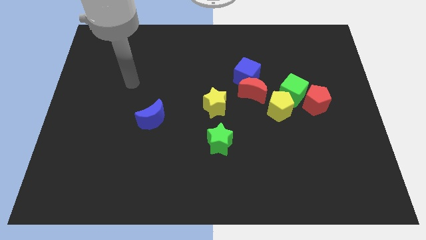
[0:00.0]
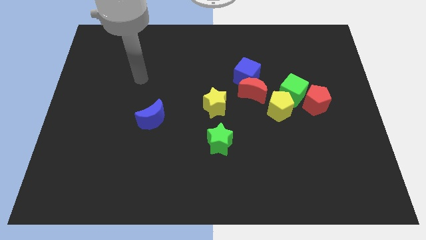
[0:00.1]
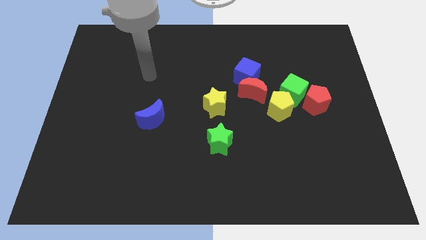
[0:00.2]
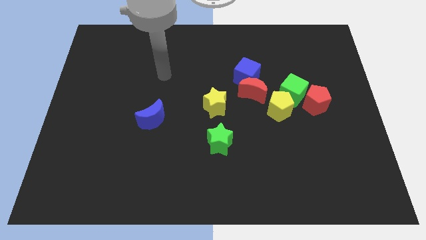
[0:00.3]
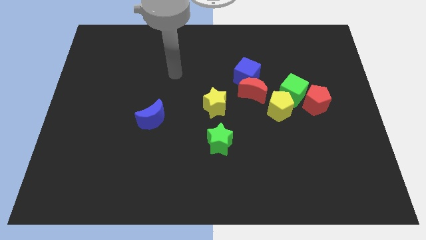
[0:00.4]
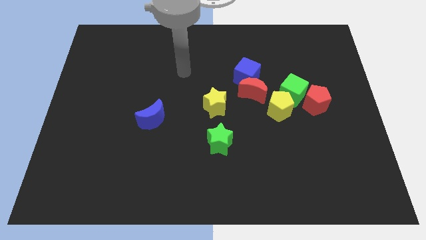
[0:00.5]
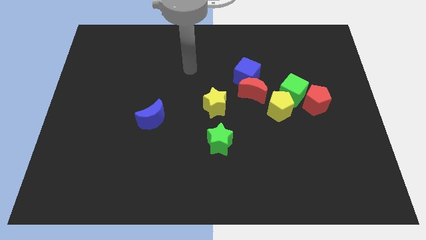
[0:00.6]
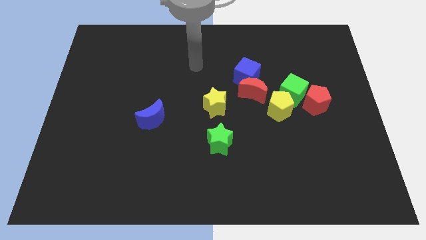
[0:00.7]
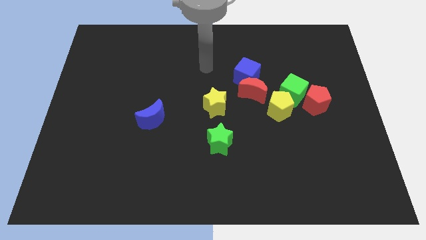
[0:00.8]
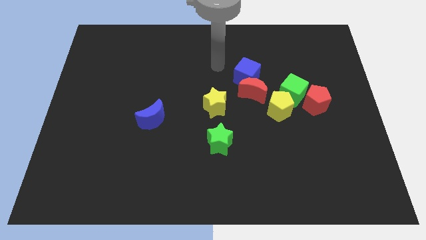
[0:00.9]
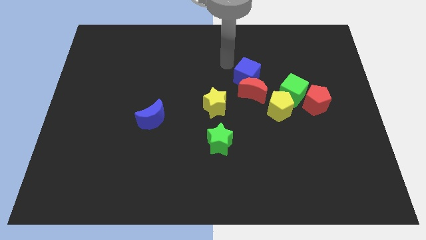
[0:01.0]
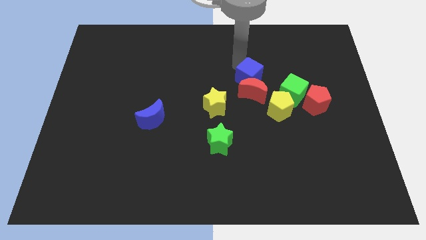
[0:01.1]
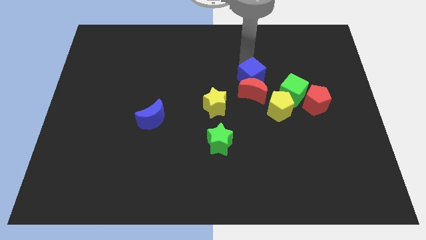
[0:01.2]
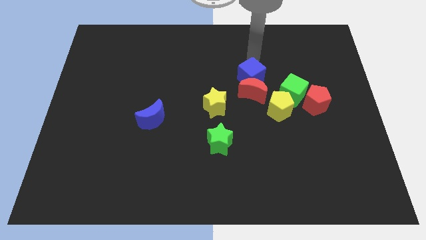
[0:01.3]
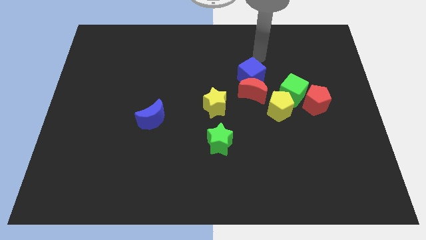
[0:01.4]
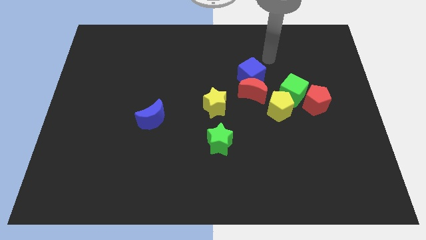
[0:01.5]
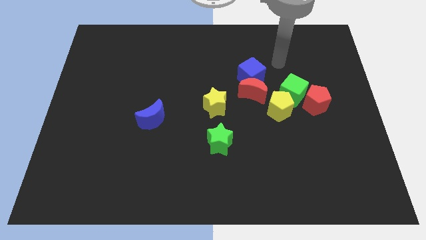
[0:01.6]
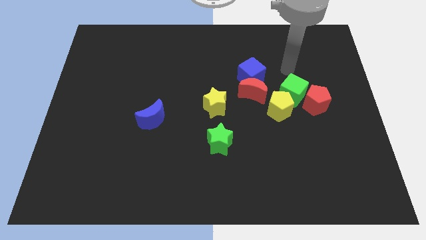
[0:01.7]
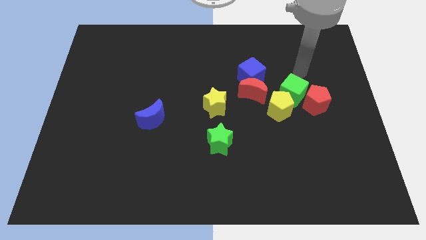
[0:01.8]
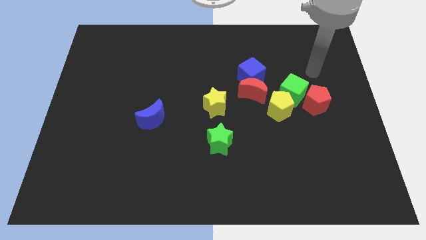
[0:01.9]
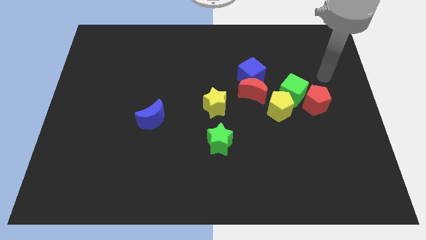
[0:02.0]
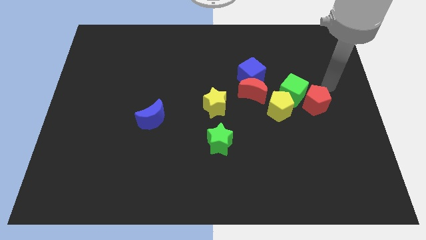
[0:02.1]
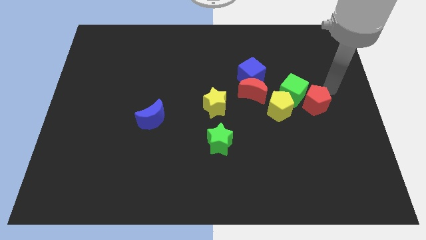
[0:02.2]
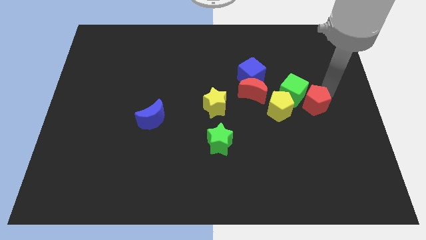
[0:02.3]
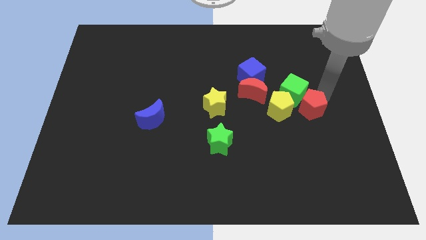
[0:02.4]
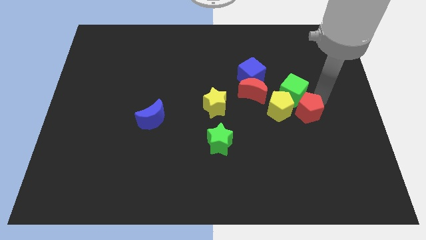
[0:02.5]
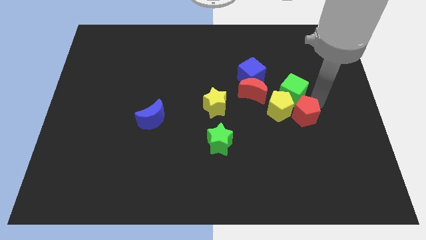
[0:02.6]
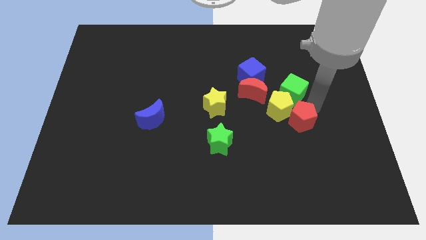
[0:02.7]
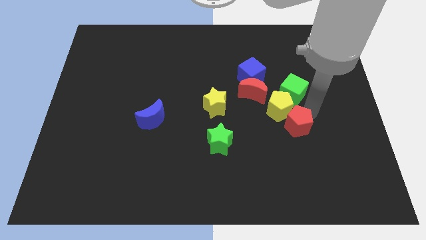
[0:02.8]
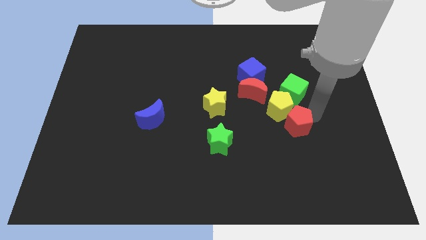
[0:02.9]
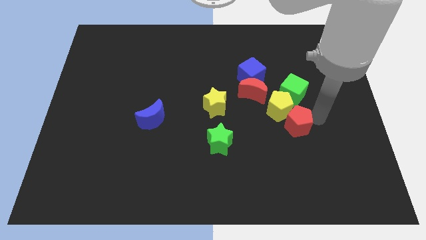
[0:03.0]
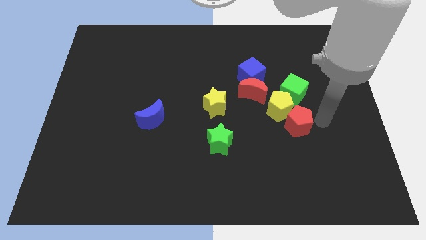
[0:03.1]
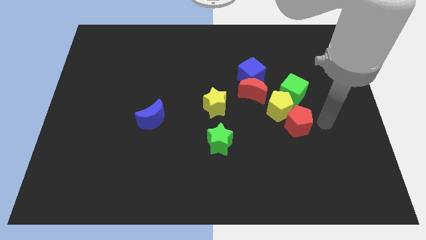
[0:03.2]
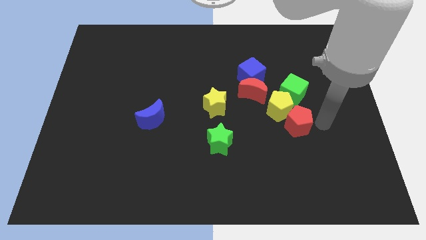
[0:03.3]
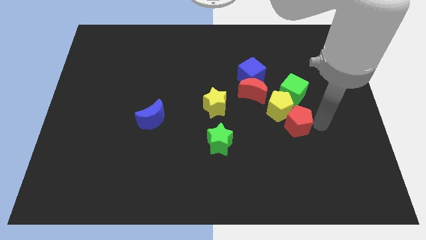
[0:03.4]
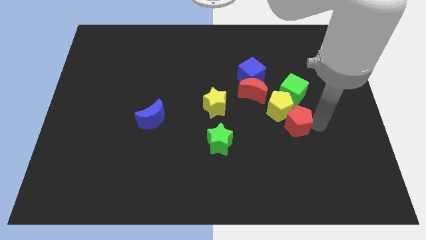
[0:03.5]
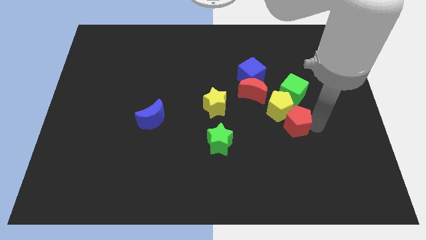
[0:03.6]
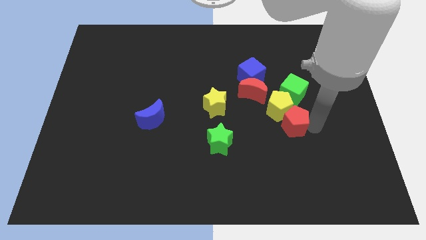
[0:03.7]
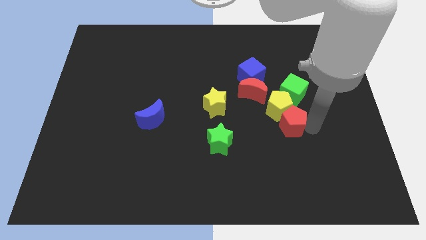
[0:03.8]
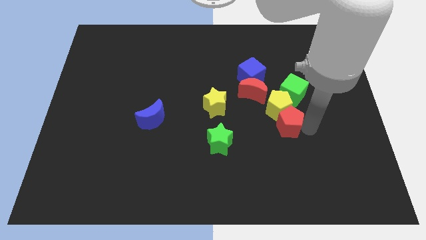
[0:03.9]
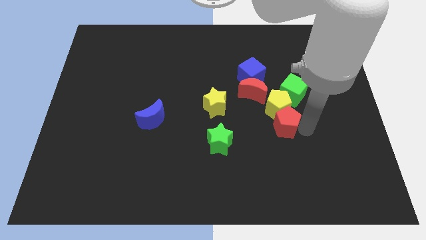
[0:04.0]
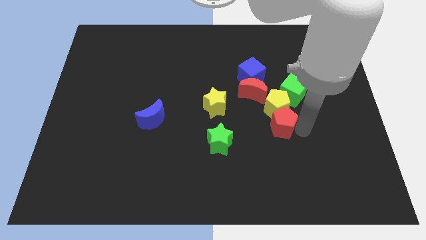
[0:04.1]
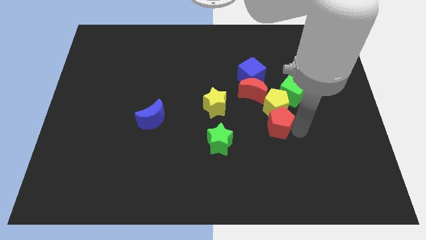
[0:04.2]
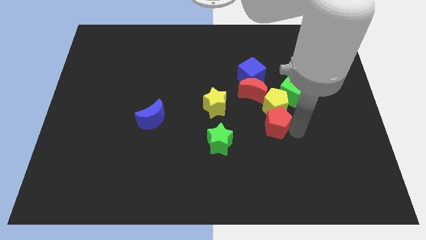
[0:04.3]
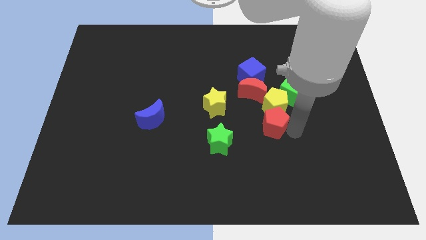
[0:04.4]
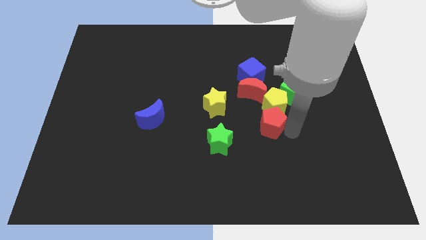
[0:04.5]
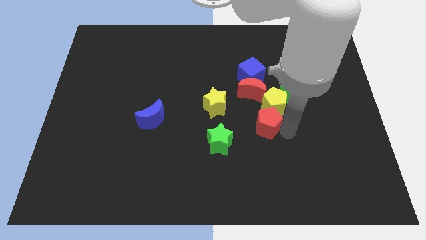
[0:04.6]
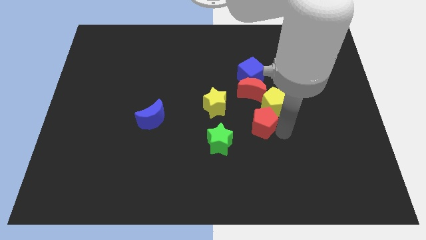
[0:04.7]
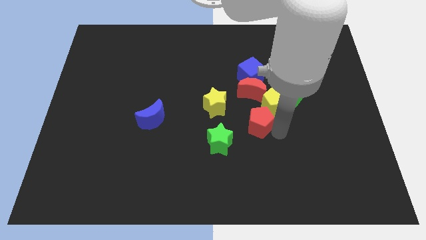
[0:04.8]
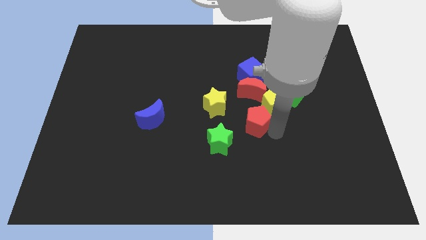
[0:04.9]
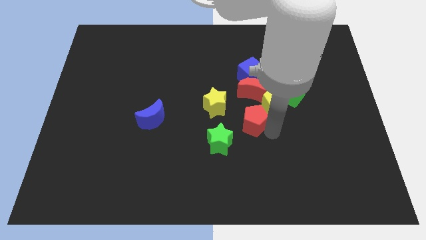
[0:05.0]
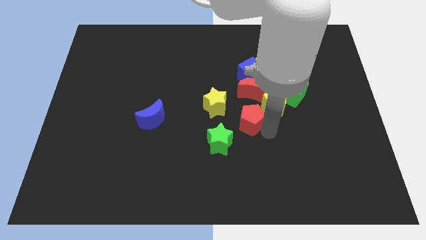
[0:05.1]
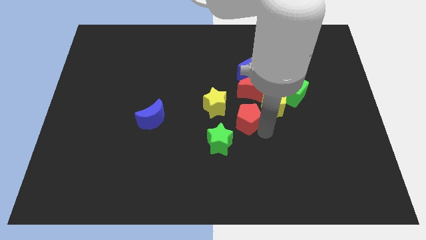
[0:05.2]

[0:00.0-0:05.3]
push the red pentagon diagonally down and to the left of the red moon

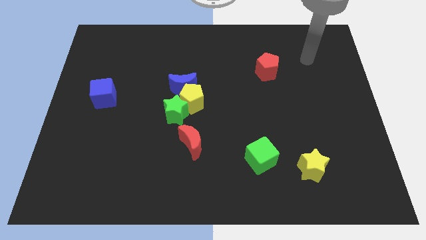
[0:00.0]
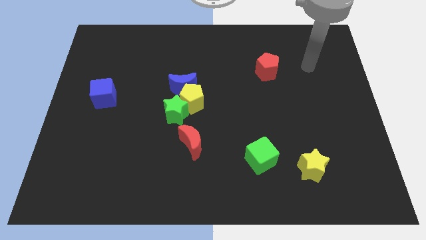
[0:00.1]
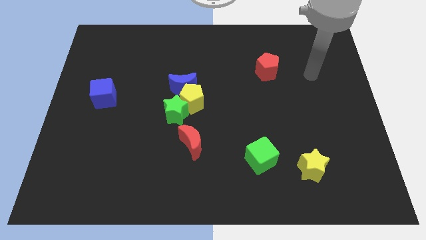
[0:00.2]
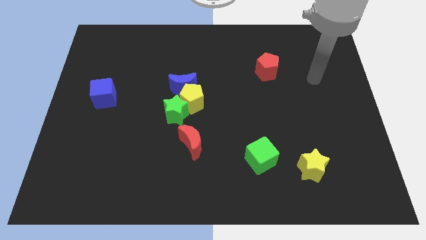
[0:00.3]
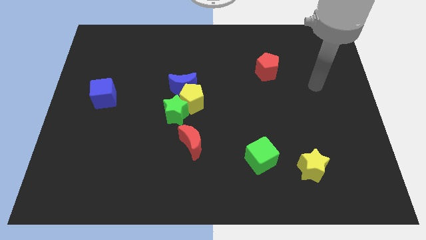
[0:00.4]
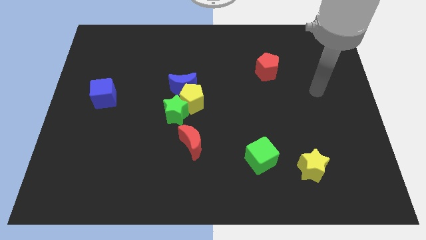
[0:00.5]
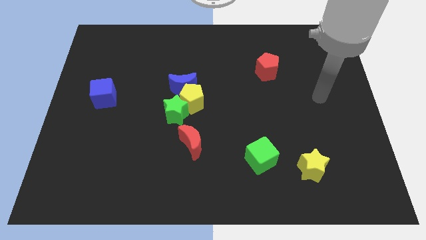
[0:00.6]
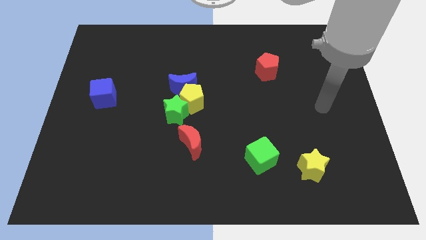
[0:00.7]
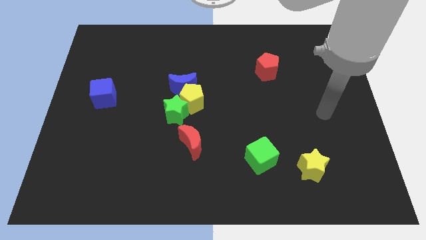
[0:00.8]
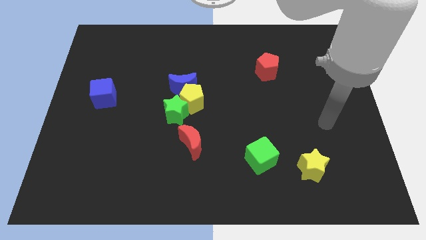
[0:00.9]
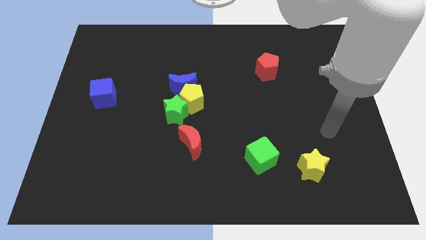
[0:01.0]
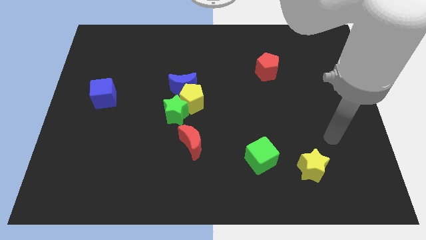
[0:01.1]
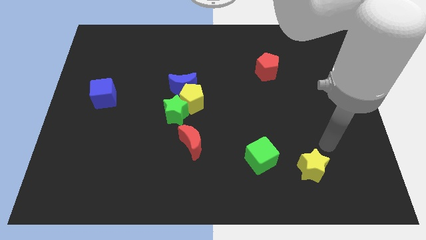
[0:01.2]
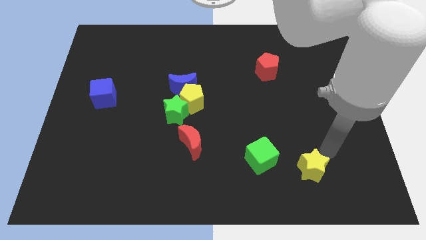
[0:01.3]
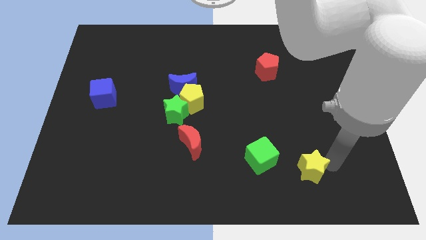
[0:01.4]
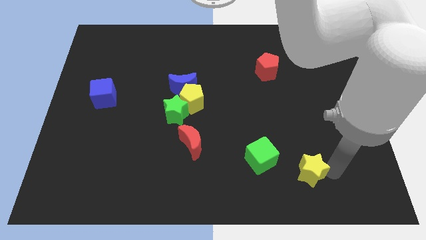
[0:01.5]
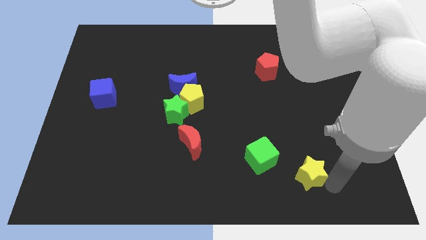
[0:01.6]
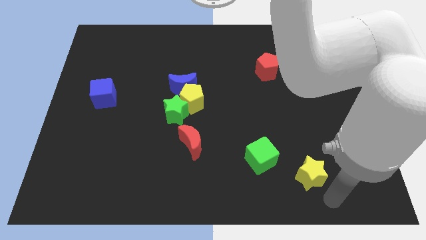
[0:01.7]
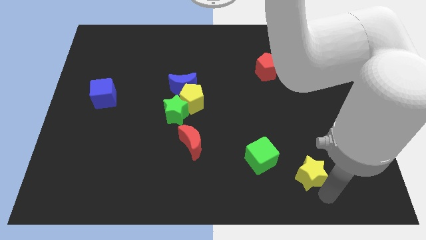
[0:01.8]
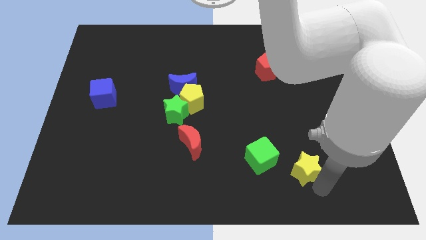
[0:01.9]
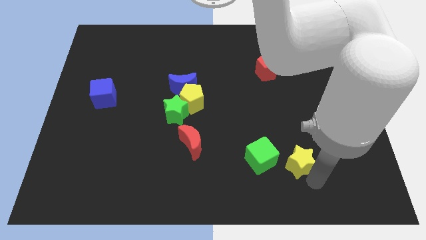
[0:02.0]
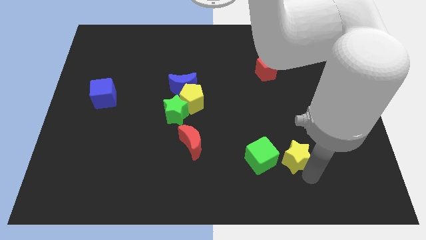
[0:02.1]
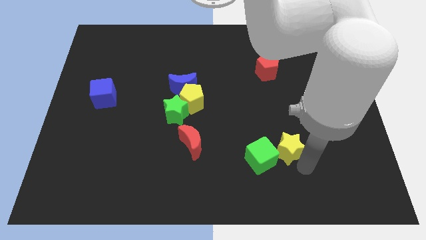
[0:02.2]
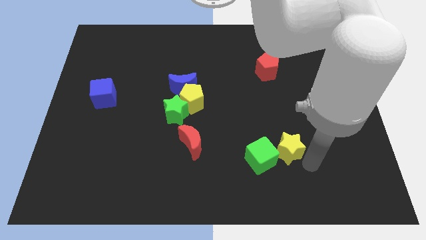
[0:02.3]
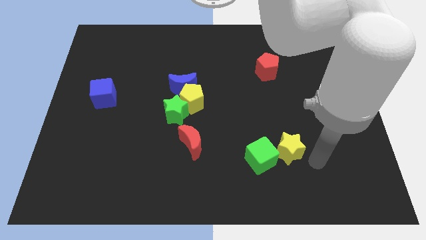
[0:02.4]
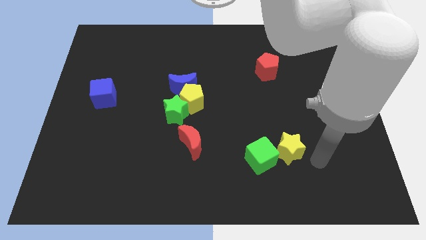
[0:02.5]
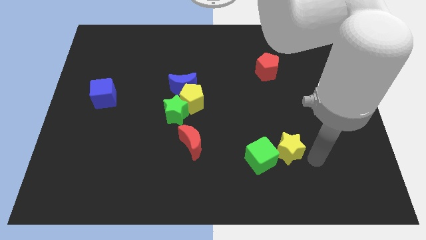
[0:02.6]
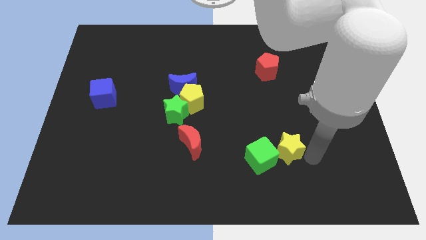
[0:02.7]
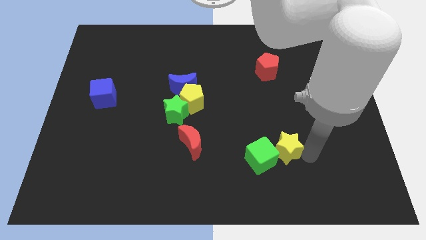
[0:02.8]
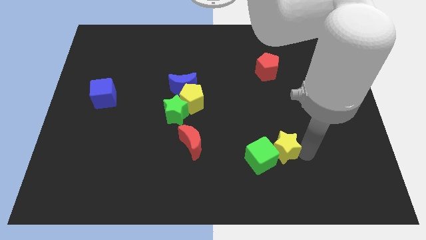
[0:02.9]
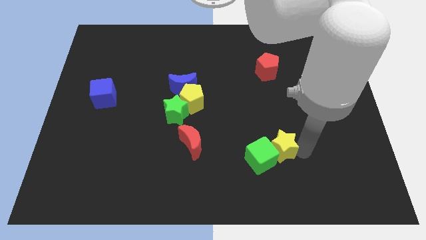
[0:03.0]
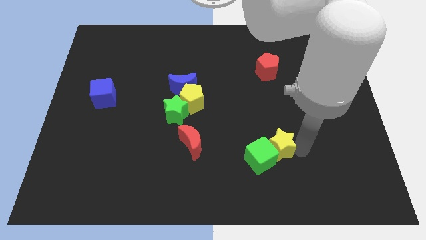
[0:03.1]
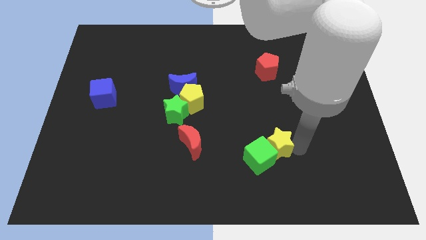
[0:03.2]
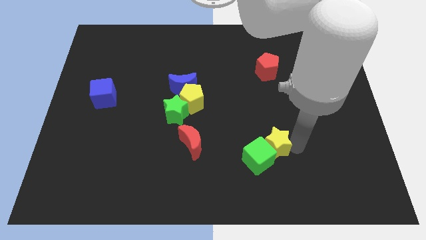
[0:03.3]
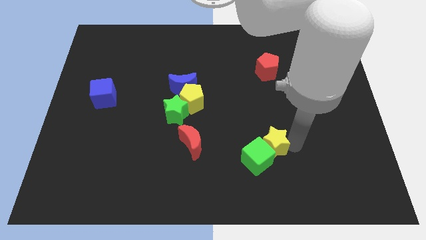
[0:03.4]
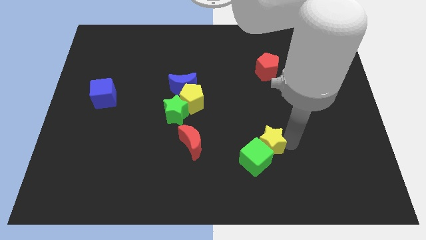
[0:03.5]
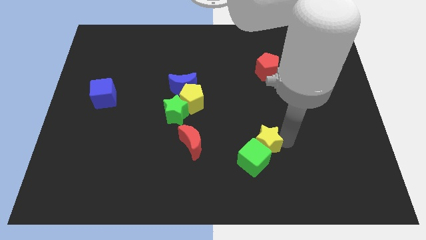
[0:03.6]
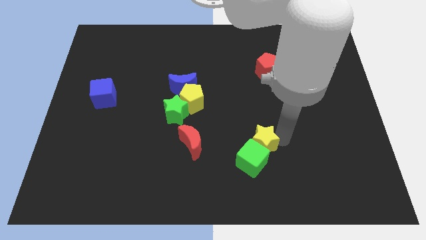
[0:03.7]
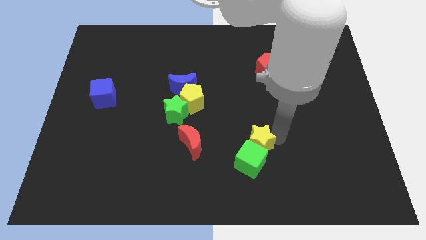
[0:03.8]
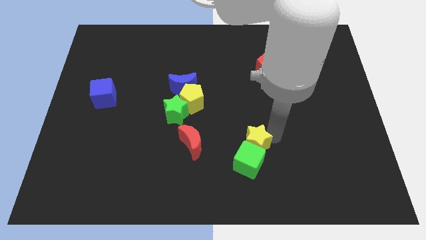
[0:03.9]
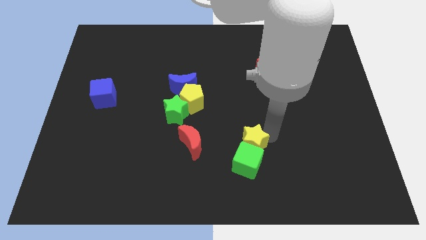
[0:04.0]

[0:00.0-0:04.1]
slide the yellow star diagonally up and to the left of the green cube
